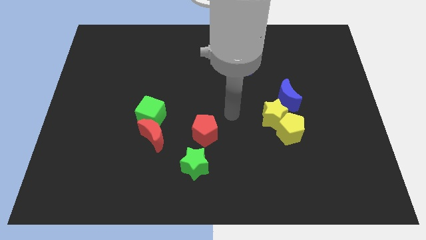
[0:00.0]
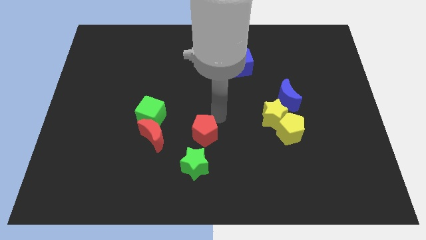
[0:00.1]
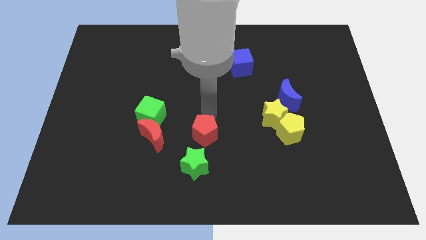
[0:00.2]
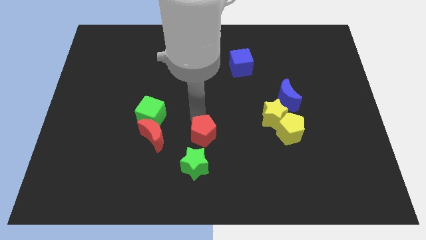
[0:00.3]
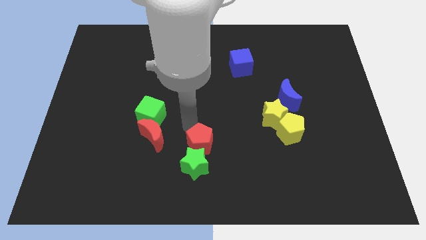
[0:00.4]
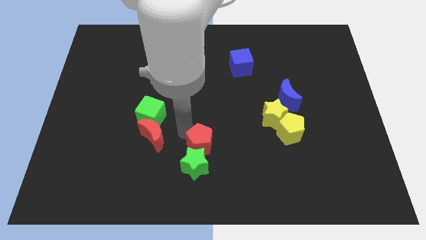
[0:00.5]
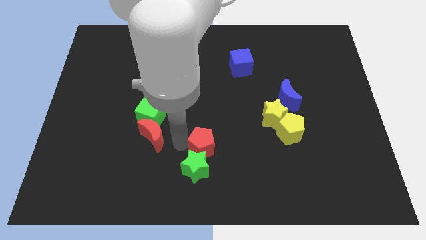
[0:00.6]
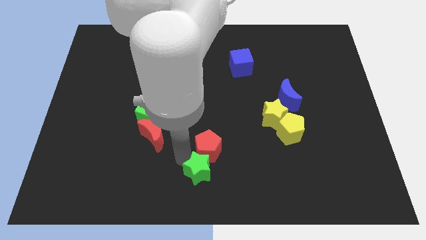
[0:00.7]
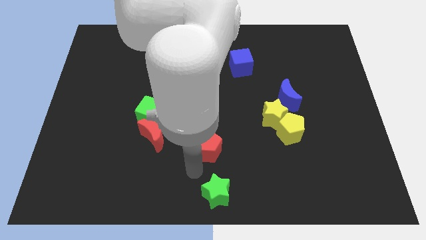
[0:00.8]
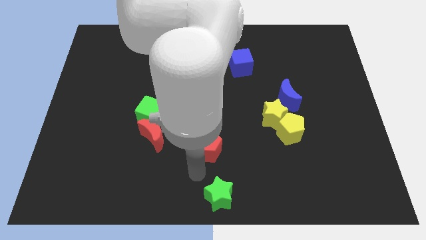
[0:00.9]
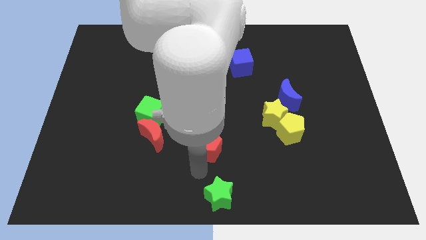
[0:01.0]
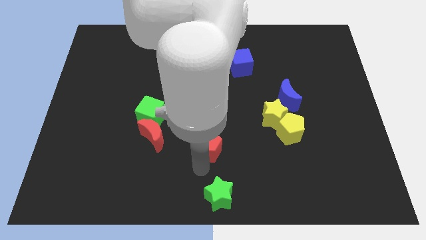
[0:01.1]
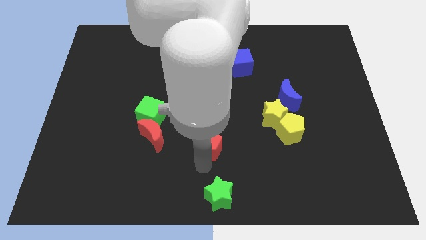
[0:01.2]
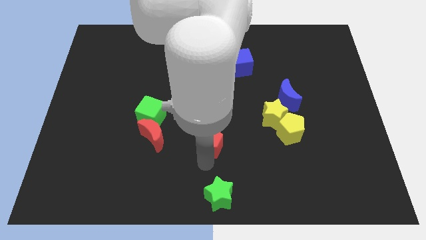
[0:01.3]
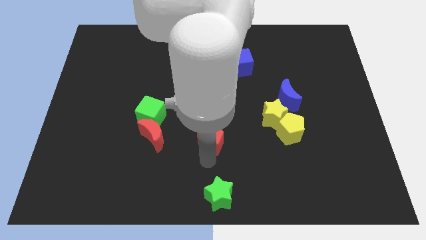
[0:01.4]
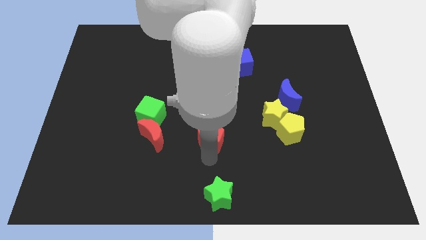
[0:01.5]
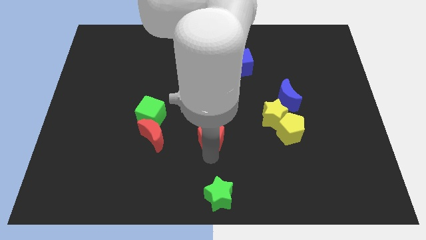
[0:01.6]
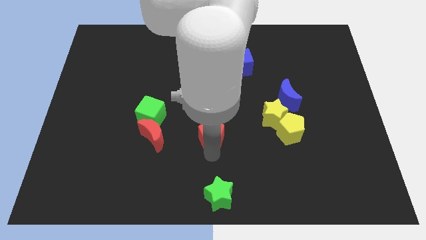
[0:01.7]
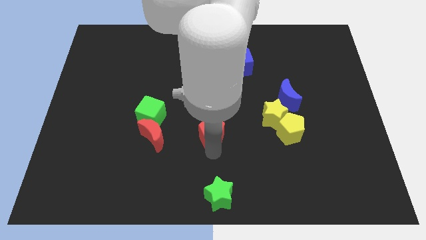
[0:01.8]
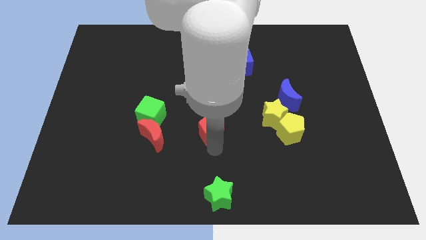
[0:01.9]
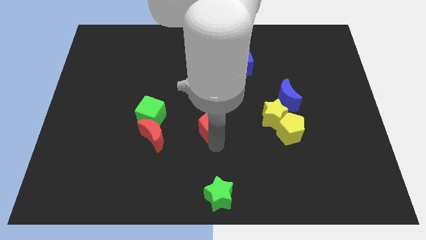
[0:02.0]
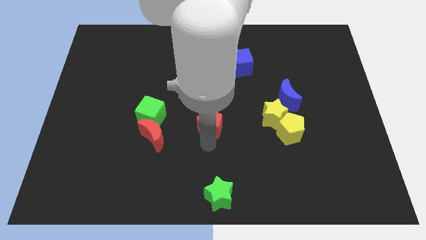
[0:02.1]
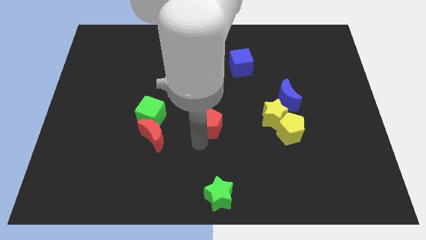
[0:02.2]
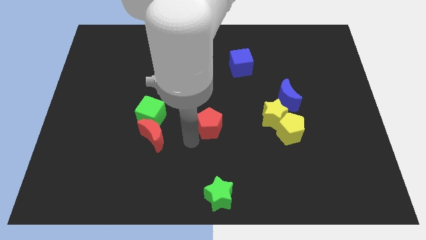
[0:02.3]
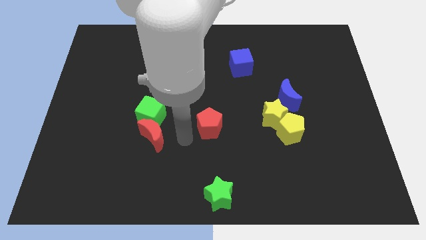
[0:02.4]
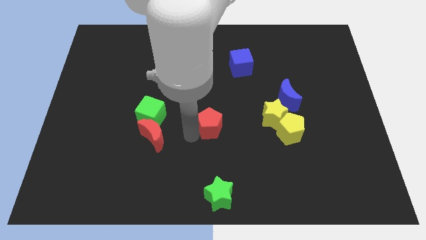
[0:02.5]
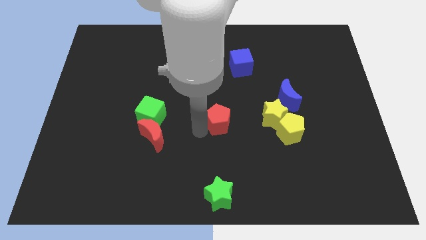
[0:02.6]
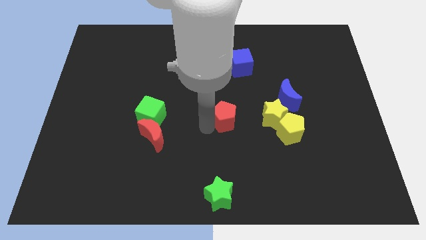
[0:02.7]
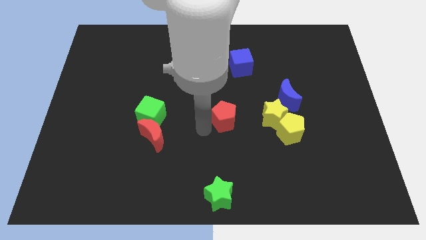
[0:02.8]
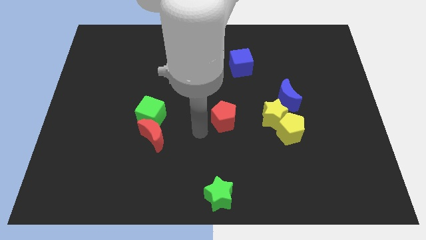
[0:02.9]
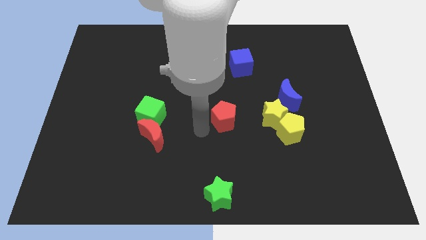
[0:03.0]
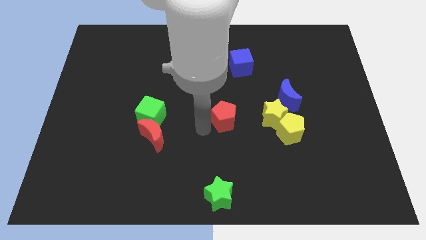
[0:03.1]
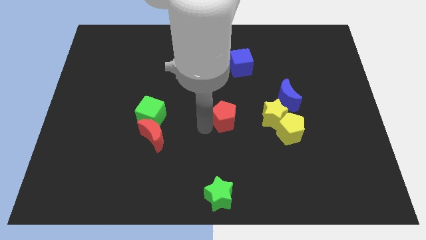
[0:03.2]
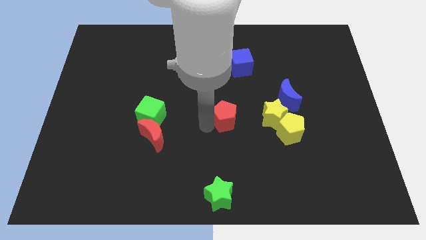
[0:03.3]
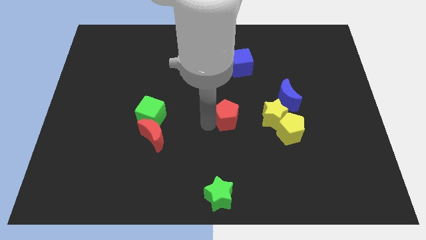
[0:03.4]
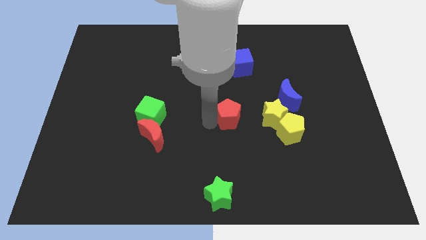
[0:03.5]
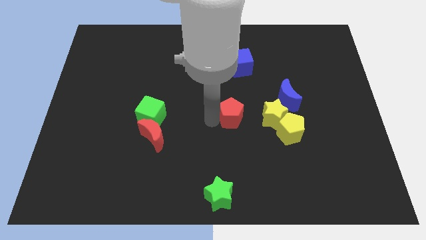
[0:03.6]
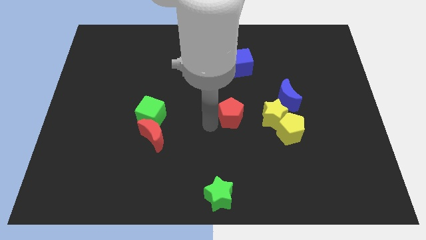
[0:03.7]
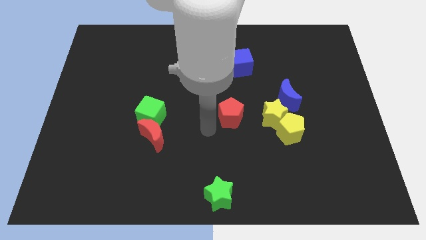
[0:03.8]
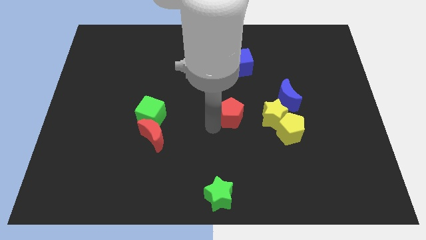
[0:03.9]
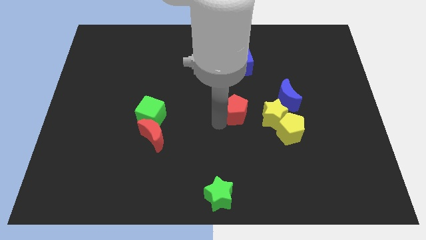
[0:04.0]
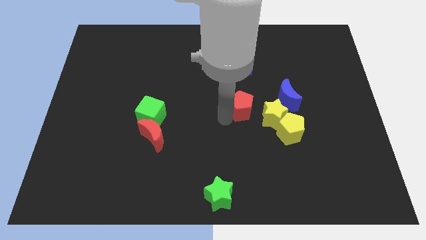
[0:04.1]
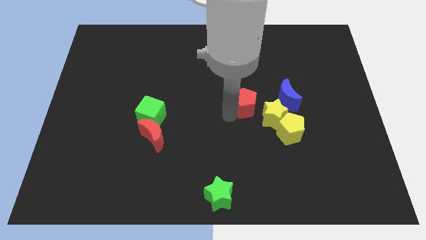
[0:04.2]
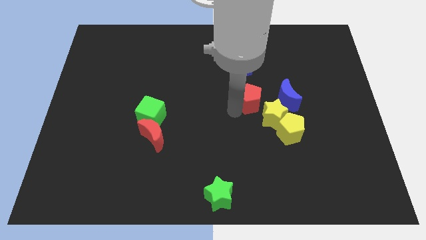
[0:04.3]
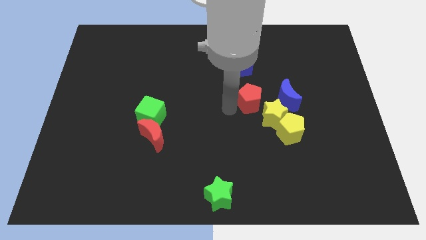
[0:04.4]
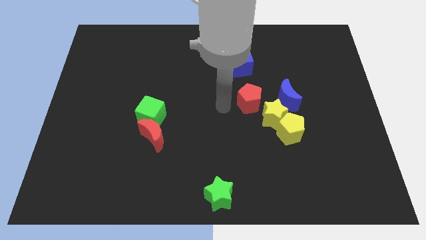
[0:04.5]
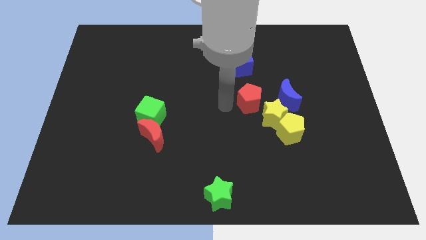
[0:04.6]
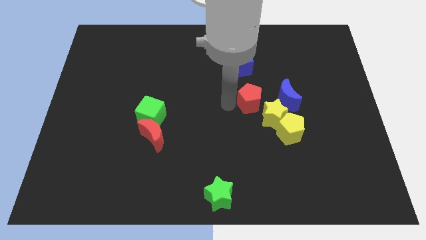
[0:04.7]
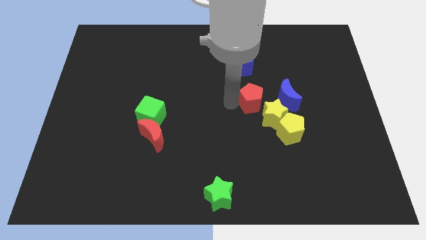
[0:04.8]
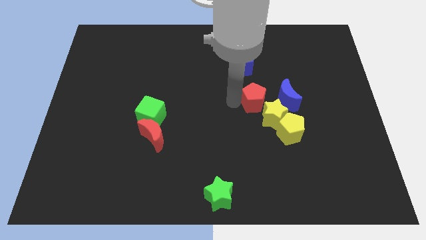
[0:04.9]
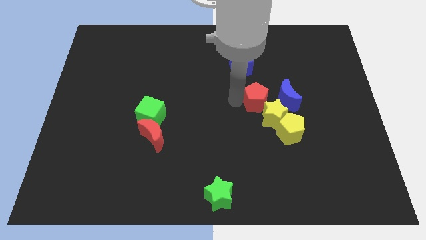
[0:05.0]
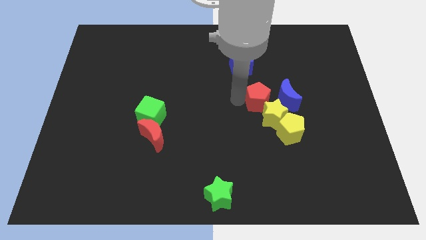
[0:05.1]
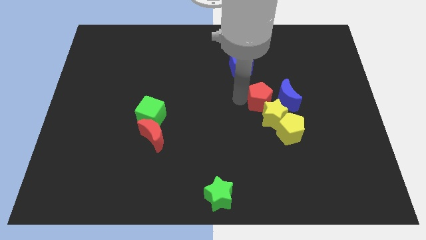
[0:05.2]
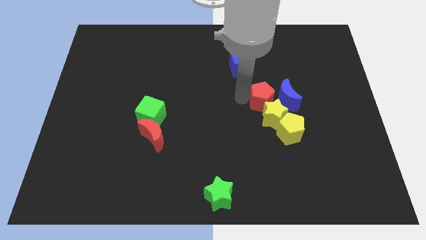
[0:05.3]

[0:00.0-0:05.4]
push the red pentagon next to the blue moon

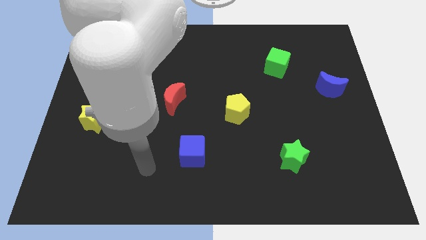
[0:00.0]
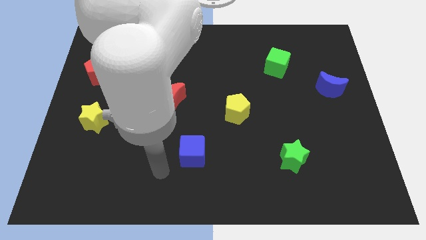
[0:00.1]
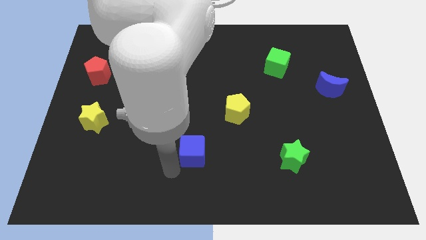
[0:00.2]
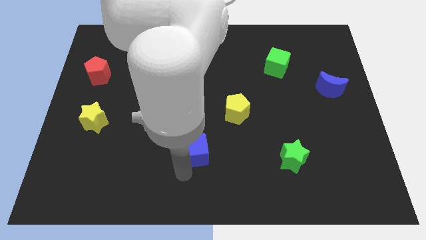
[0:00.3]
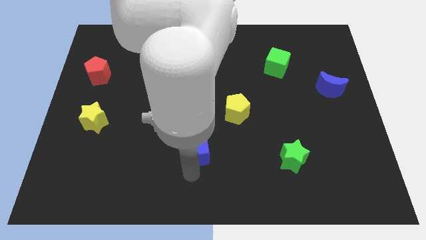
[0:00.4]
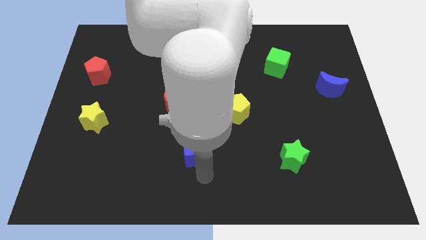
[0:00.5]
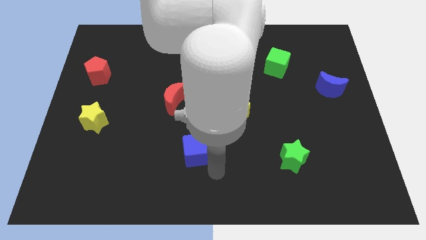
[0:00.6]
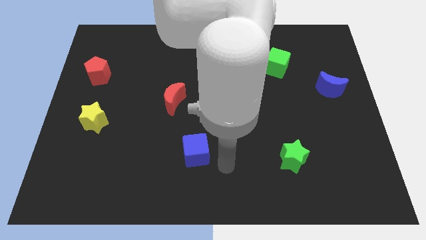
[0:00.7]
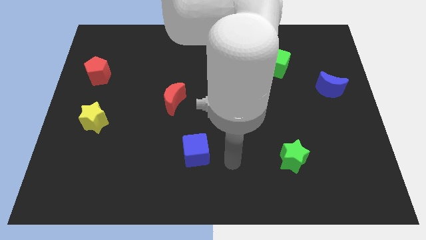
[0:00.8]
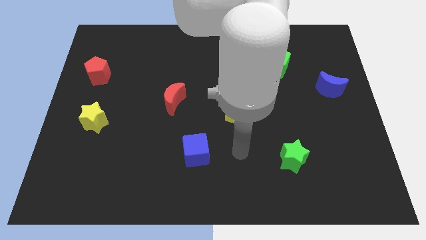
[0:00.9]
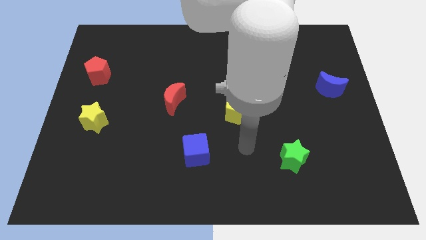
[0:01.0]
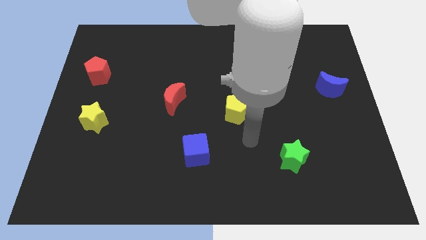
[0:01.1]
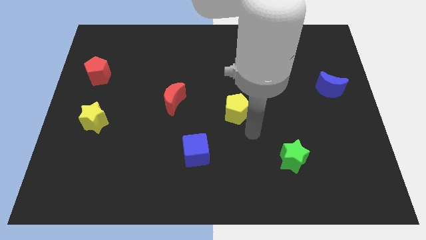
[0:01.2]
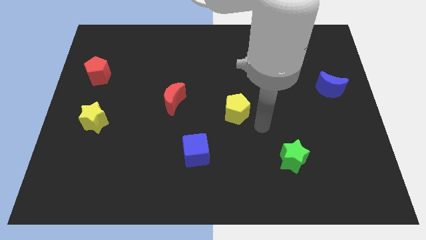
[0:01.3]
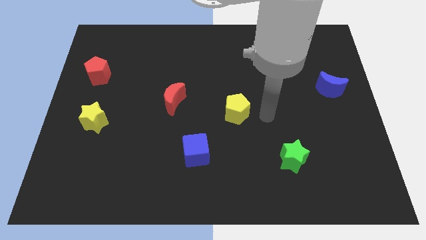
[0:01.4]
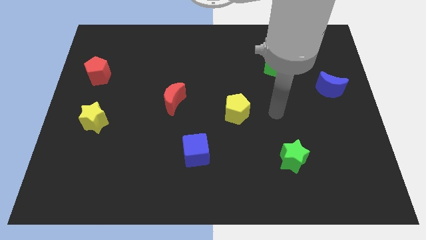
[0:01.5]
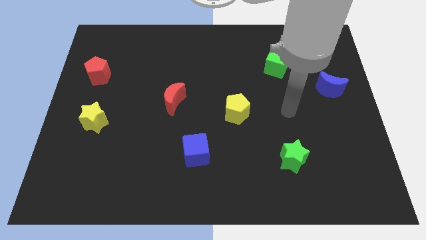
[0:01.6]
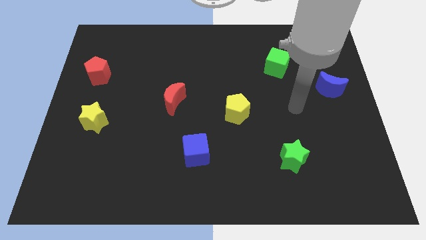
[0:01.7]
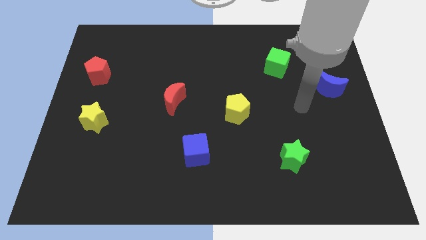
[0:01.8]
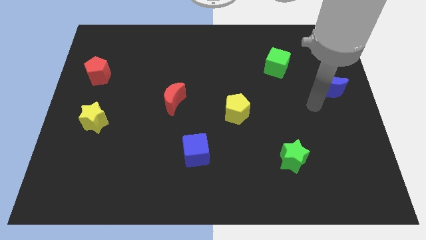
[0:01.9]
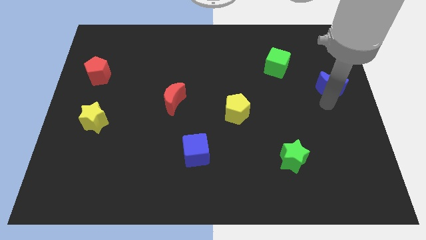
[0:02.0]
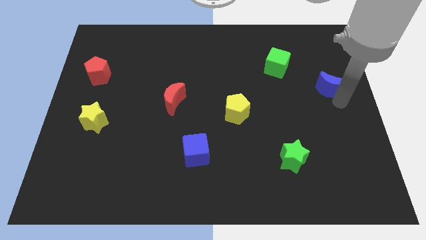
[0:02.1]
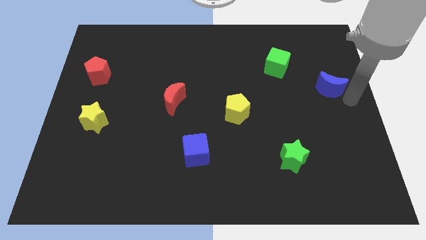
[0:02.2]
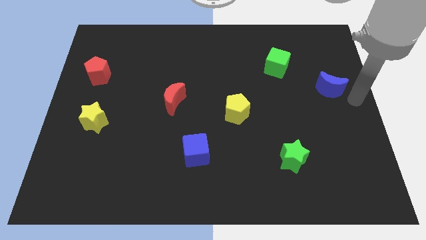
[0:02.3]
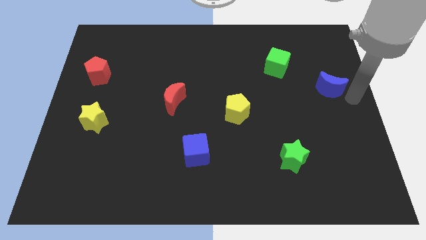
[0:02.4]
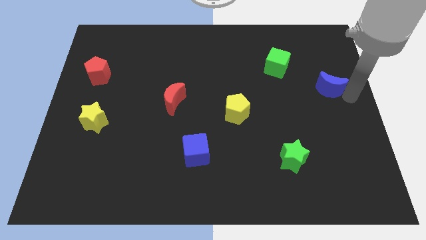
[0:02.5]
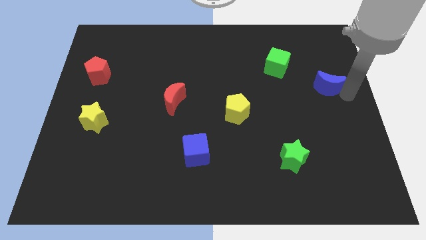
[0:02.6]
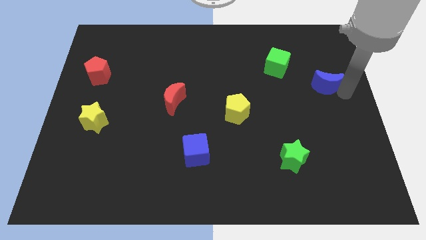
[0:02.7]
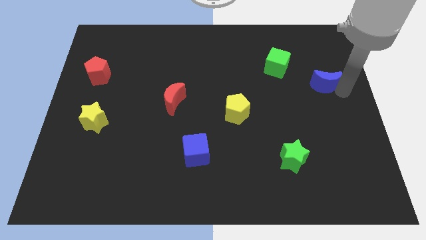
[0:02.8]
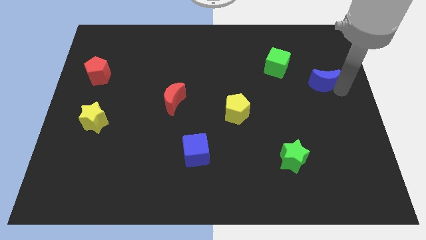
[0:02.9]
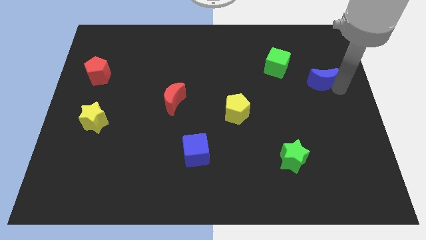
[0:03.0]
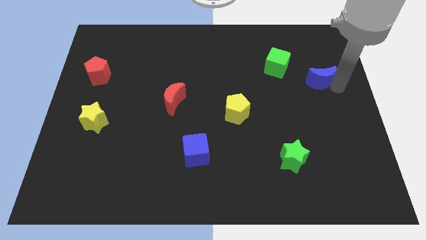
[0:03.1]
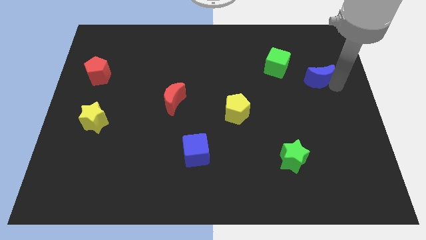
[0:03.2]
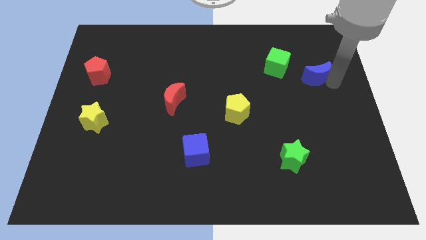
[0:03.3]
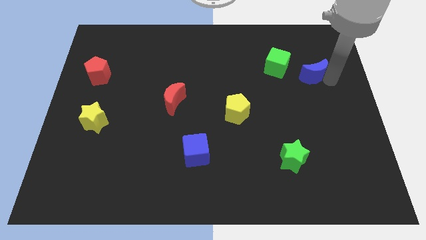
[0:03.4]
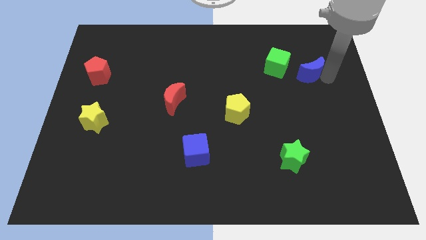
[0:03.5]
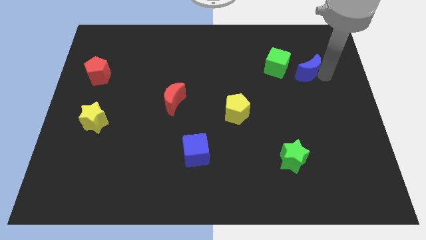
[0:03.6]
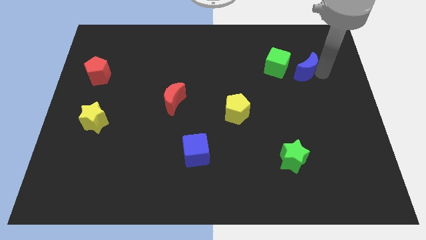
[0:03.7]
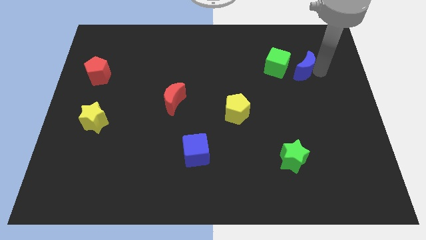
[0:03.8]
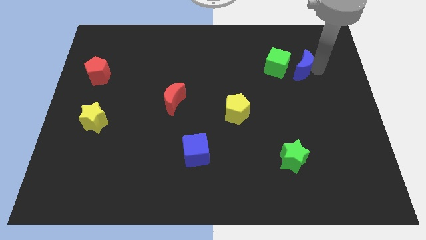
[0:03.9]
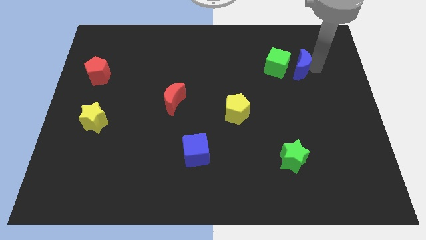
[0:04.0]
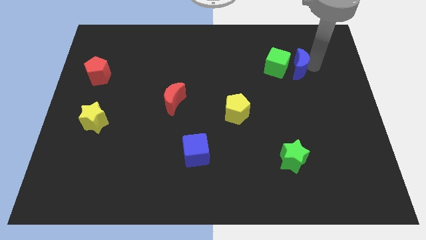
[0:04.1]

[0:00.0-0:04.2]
slide the blue moon towards the green cube
